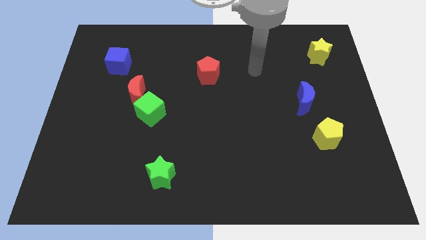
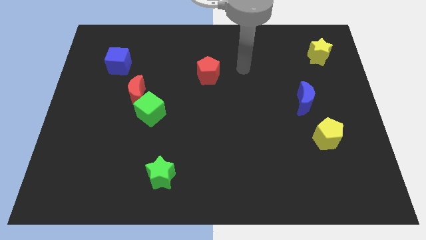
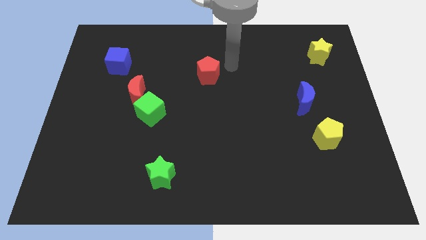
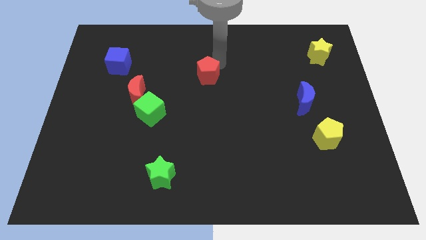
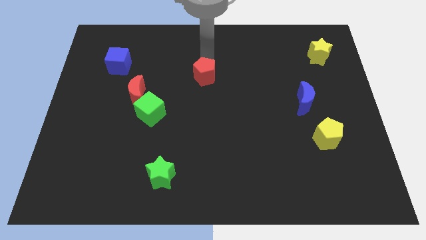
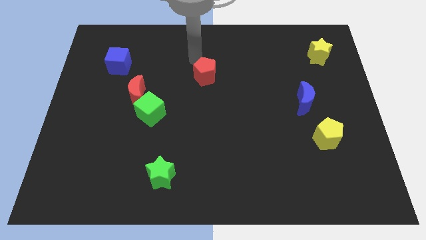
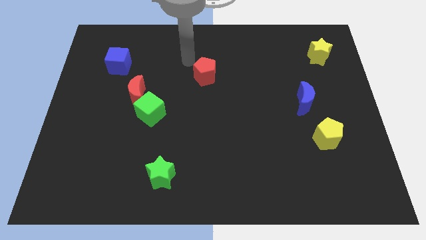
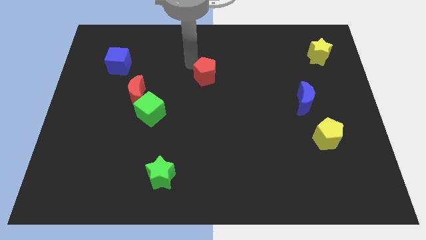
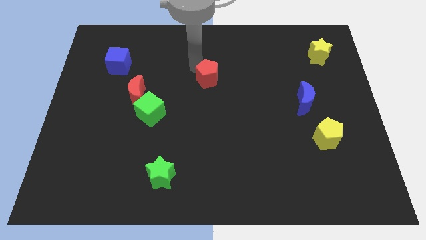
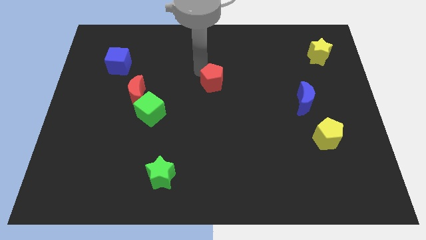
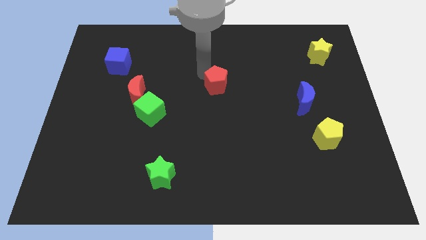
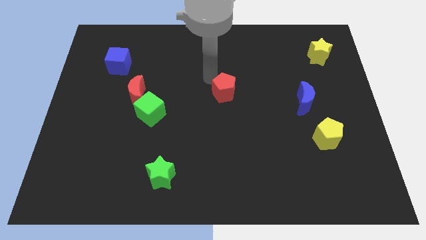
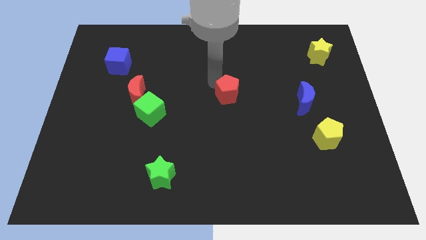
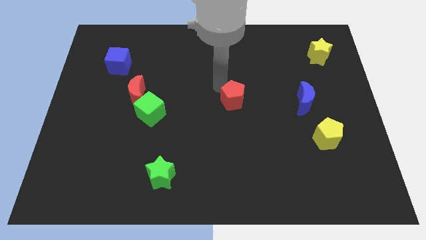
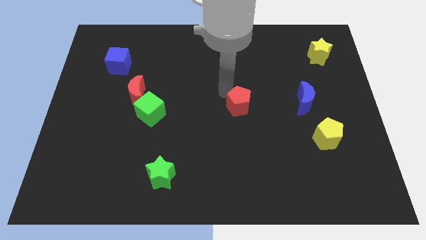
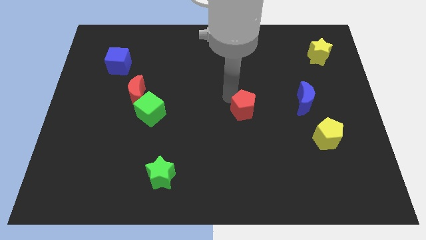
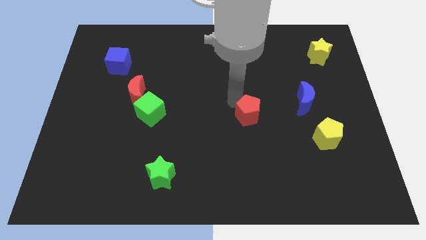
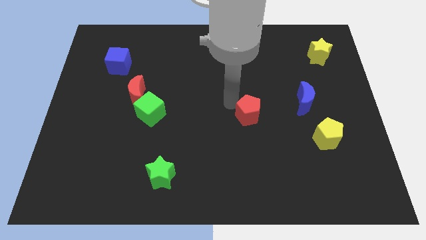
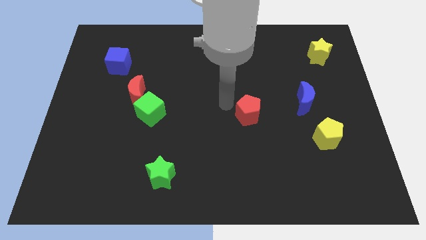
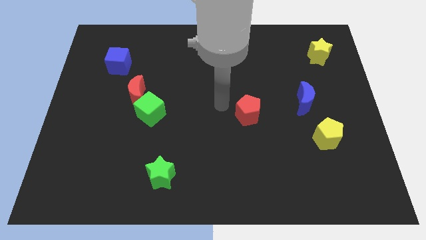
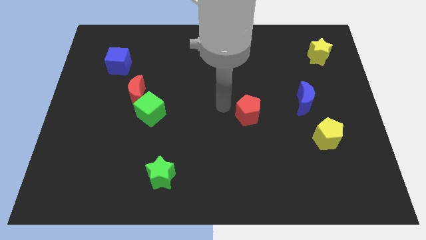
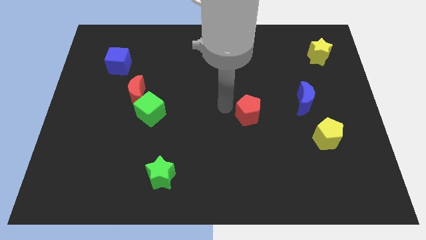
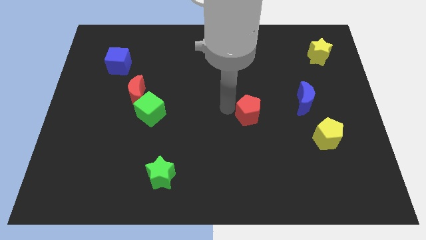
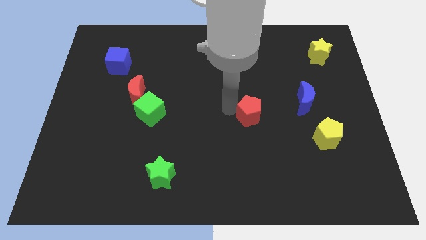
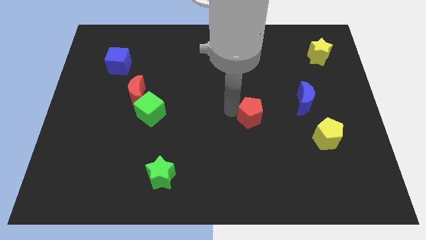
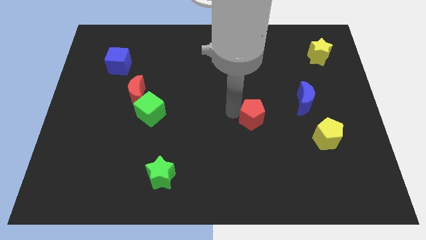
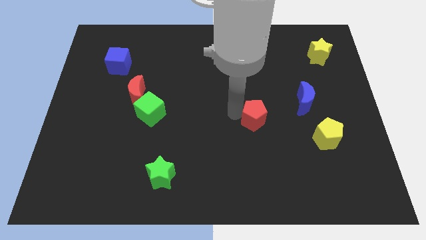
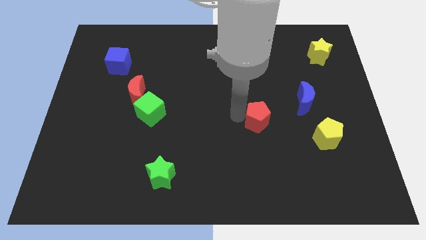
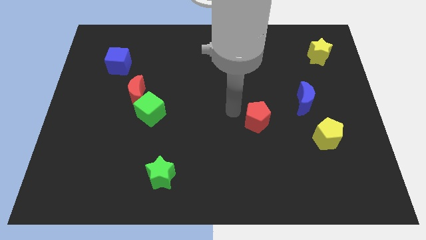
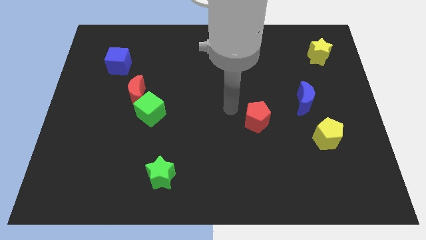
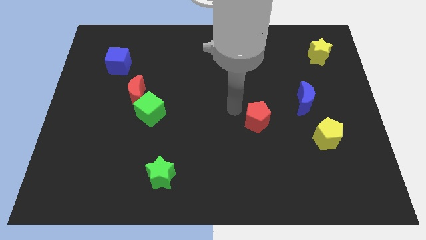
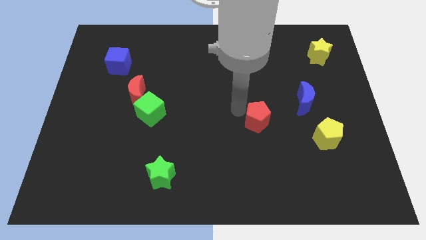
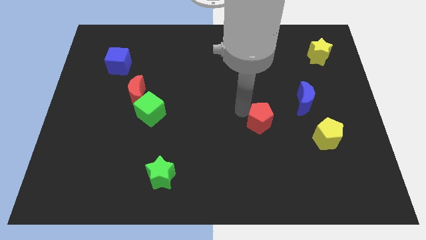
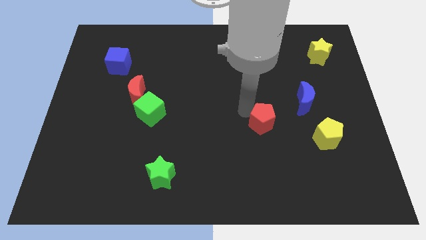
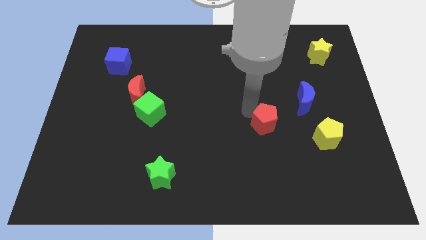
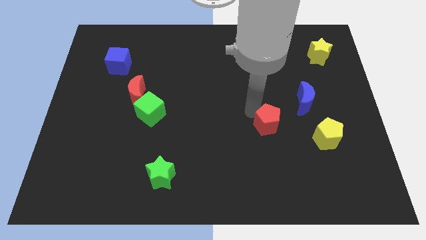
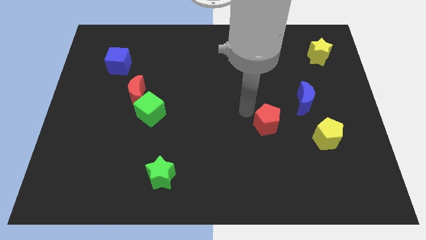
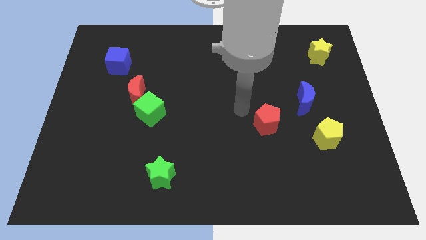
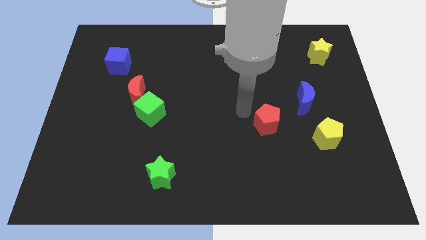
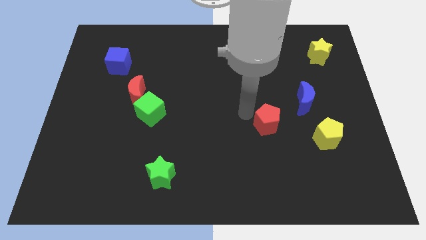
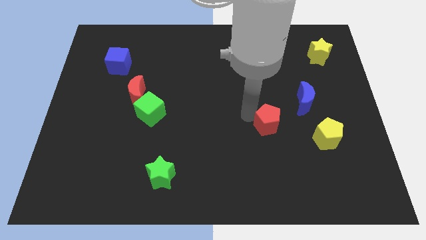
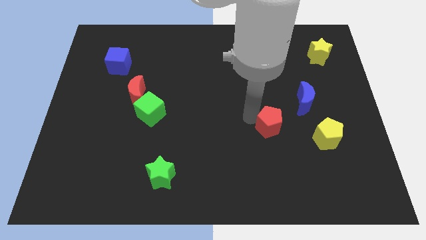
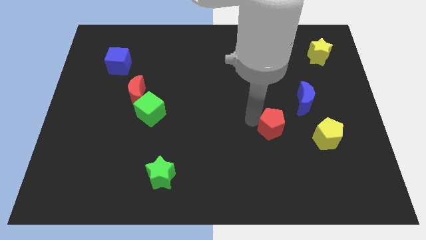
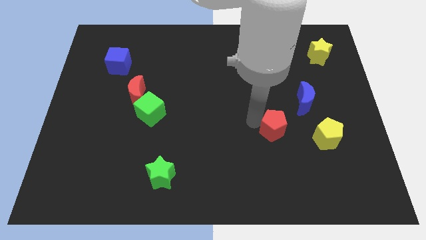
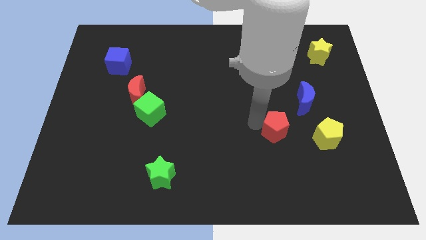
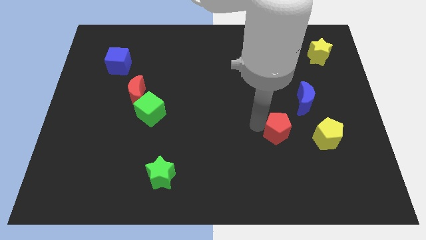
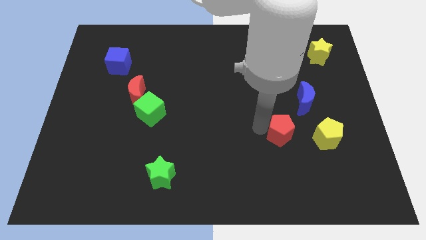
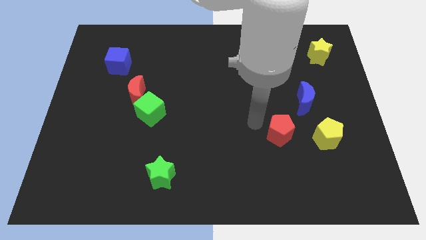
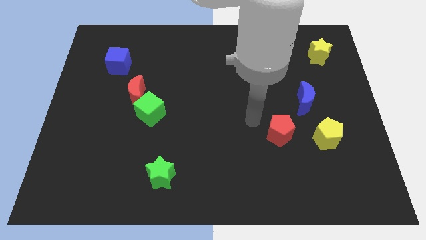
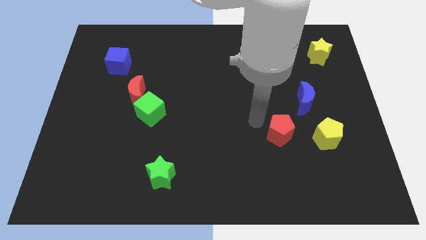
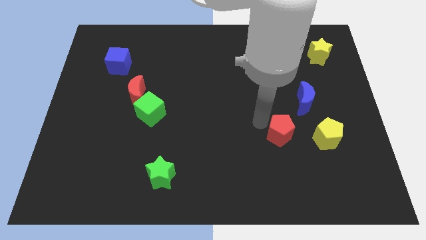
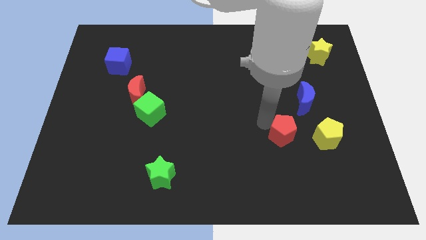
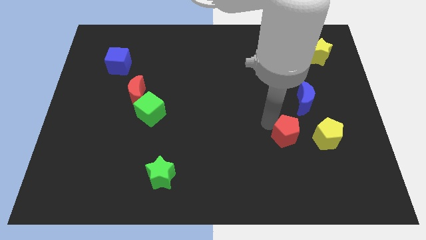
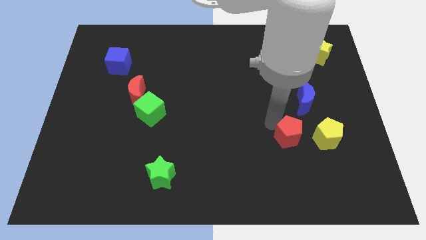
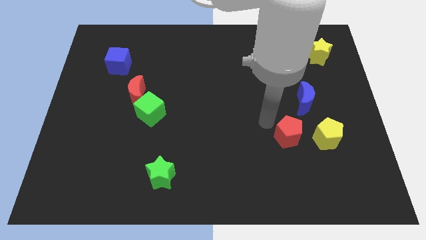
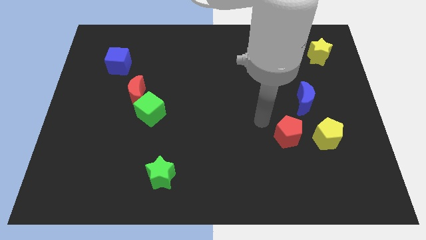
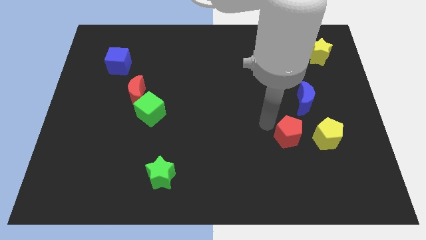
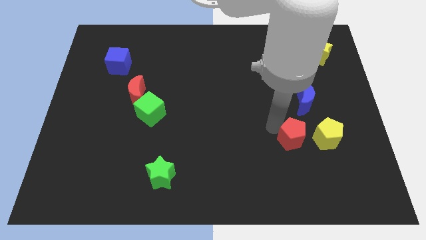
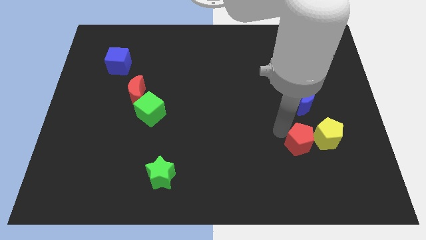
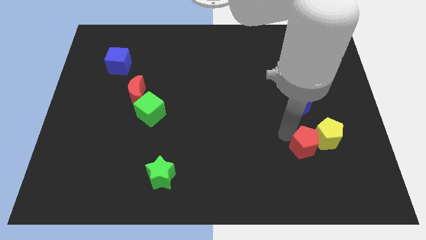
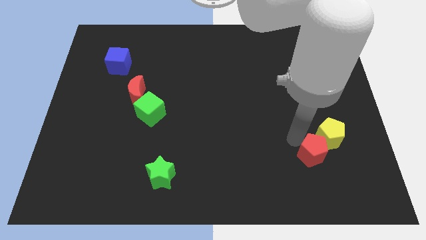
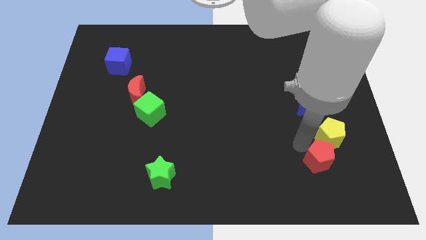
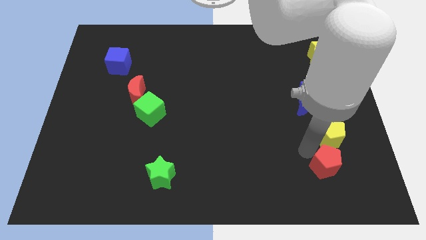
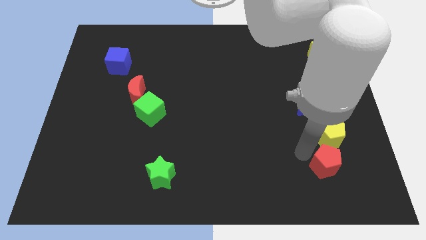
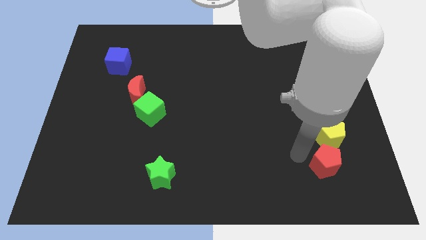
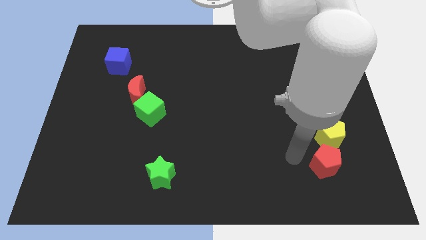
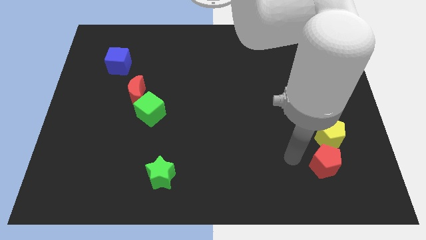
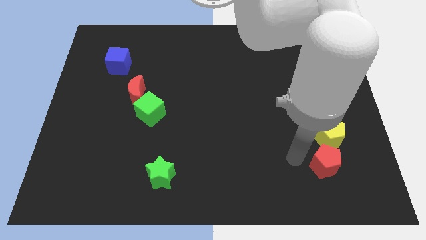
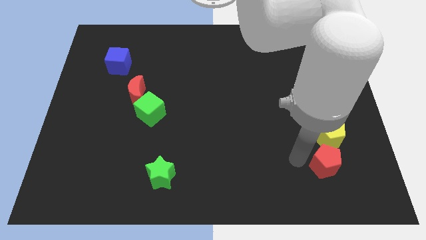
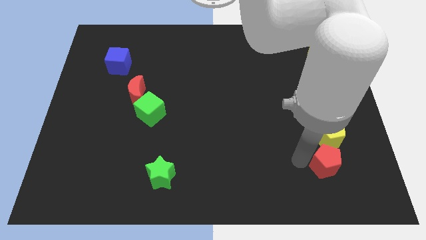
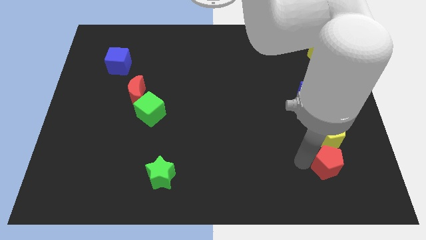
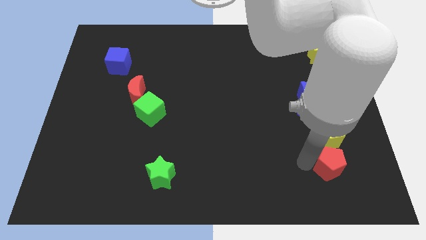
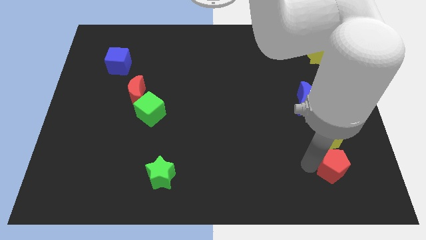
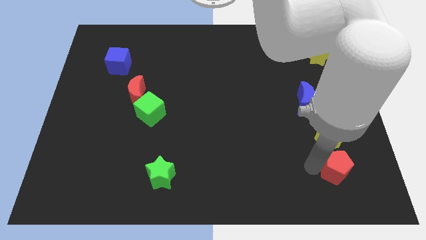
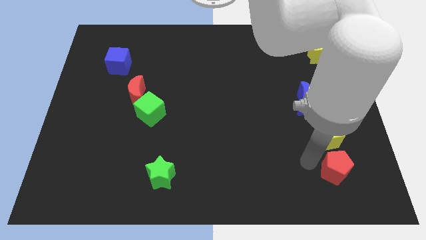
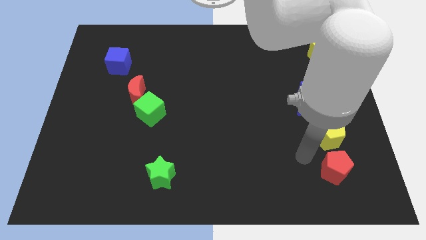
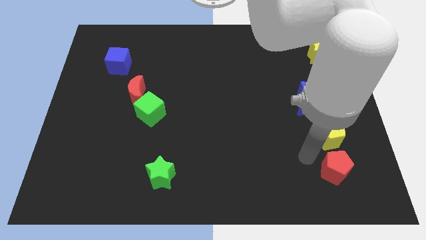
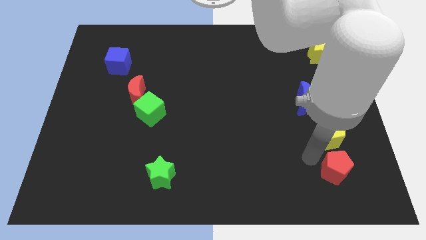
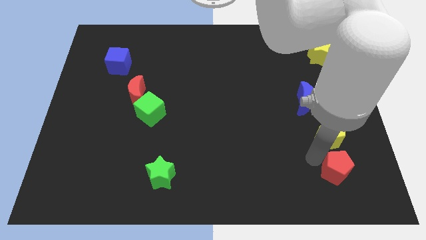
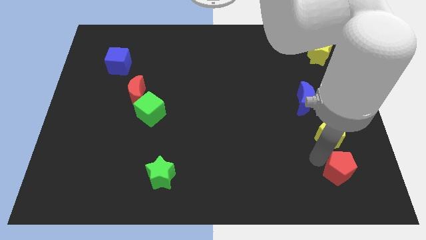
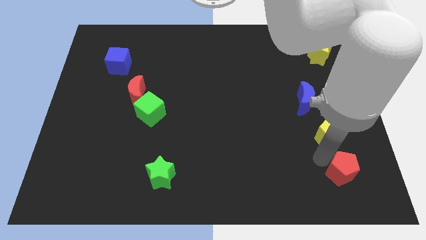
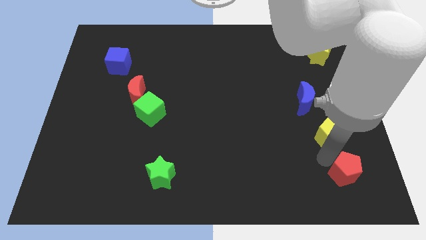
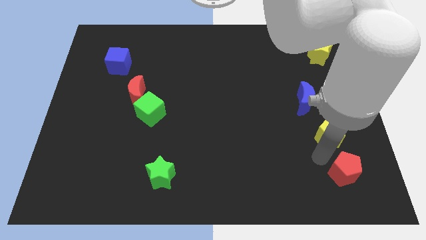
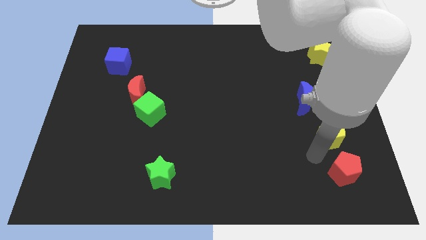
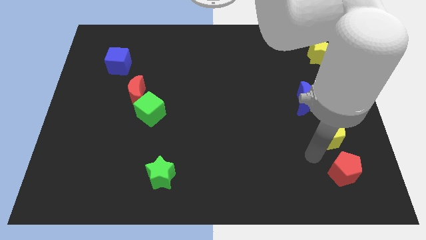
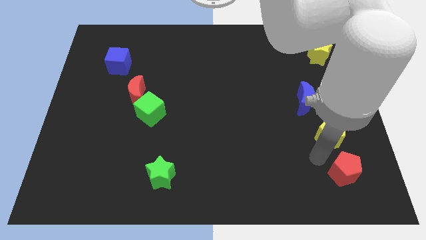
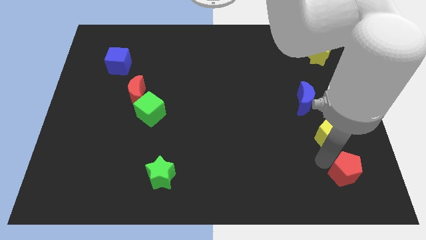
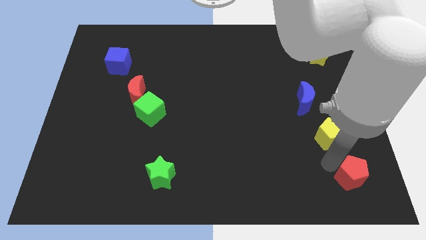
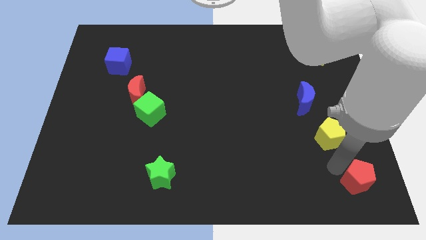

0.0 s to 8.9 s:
put the red pentagon to the bottom right of the board
